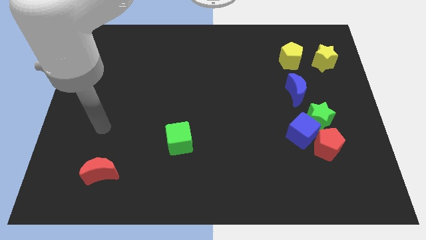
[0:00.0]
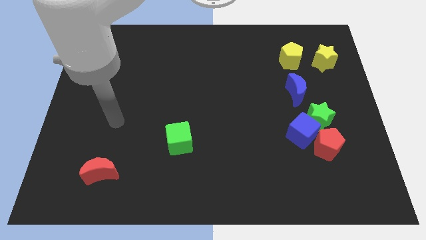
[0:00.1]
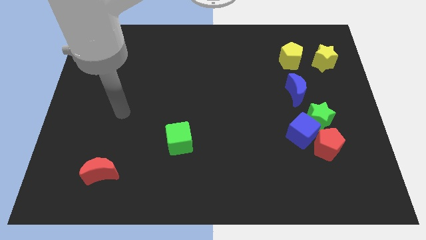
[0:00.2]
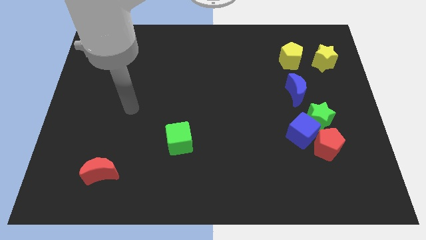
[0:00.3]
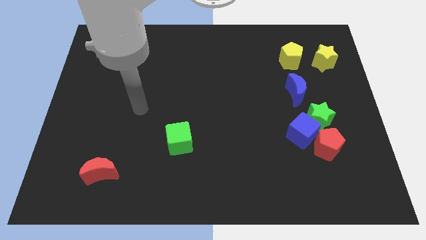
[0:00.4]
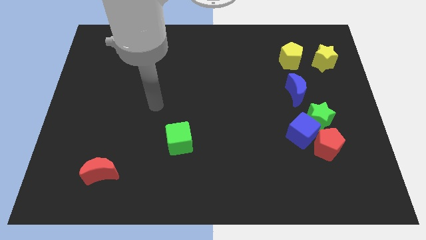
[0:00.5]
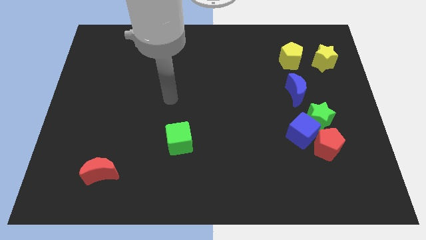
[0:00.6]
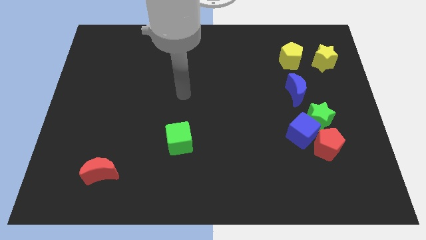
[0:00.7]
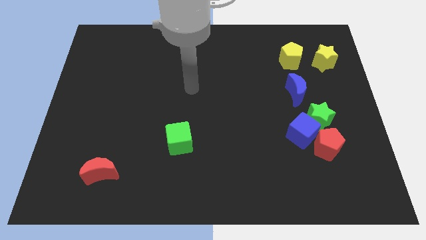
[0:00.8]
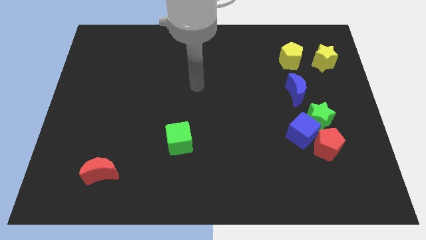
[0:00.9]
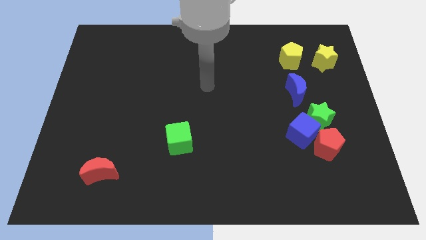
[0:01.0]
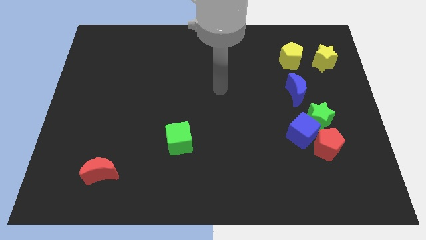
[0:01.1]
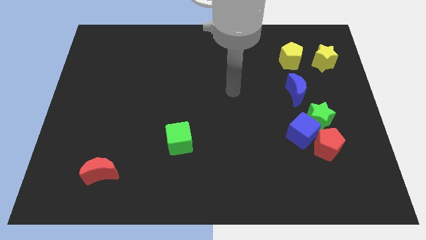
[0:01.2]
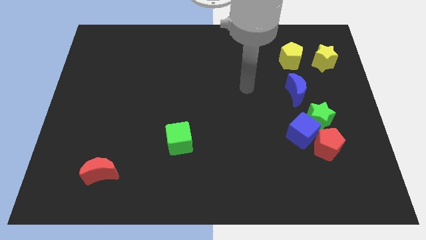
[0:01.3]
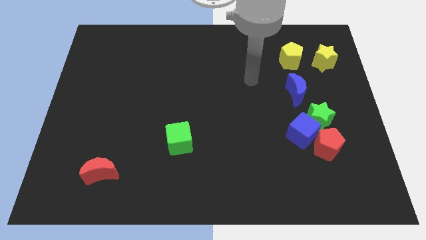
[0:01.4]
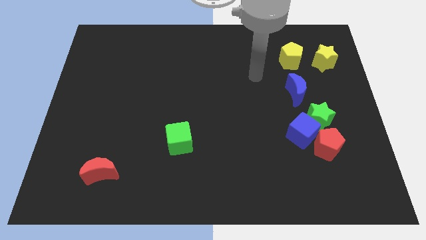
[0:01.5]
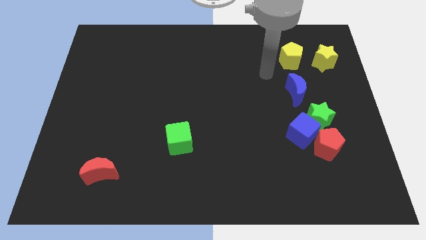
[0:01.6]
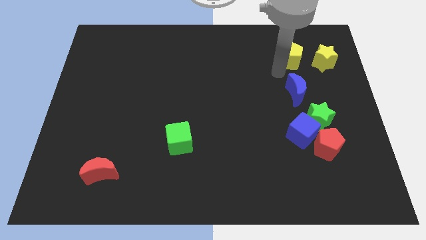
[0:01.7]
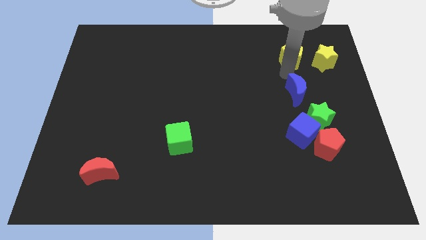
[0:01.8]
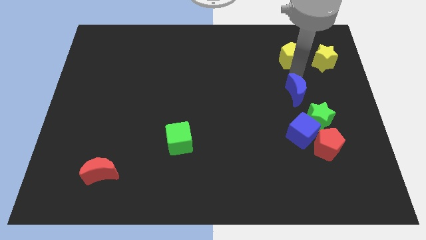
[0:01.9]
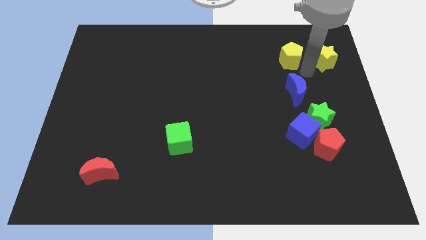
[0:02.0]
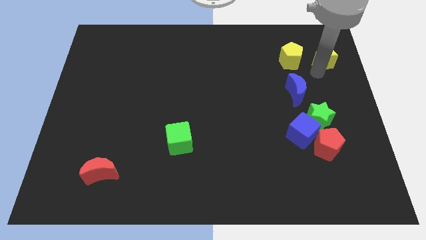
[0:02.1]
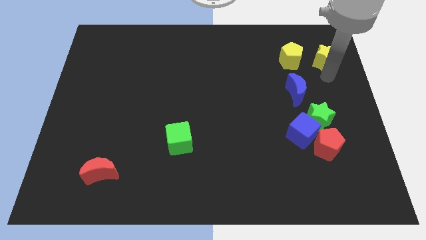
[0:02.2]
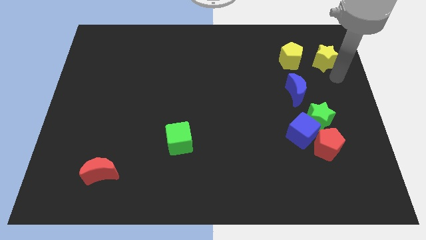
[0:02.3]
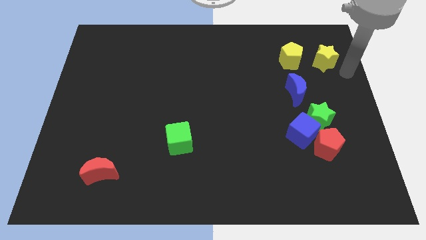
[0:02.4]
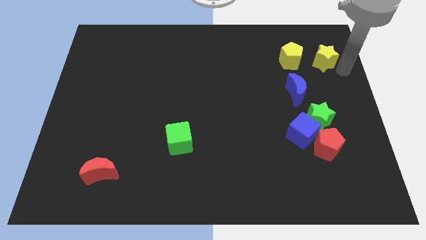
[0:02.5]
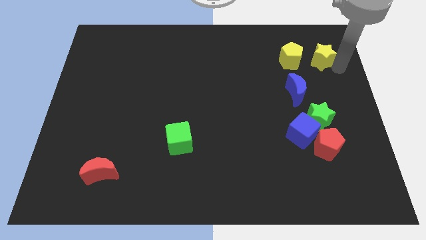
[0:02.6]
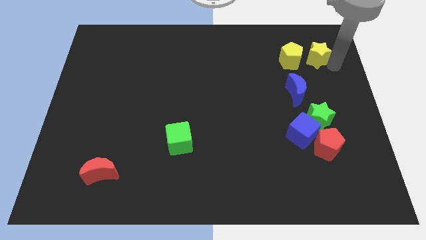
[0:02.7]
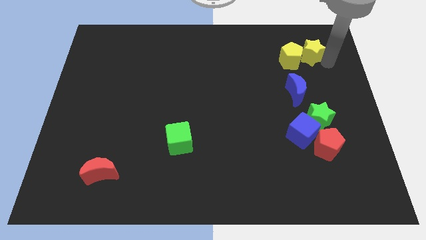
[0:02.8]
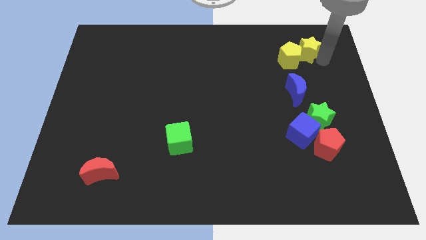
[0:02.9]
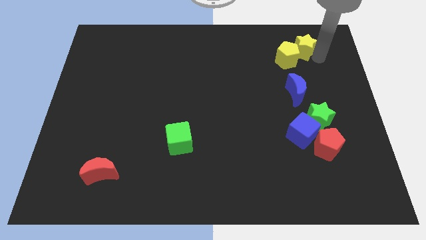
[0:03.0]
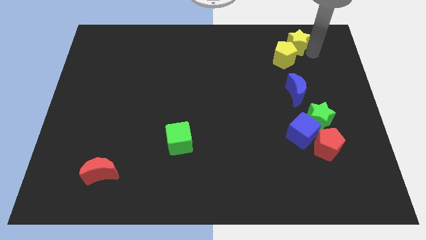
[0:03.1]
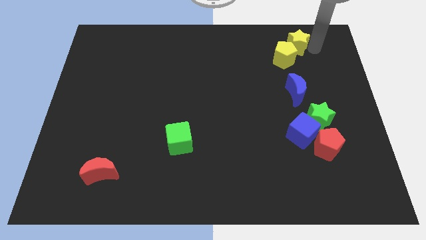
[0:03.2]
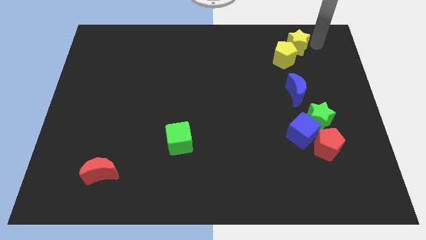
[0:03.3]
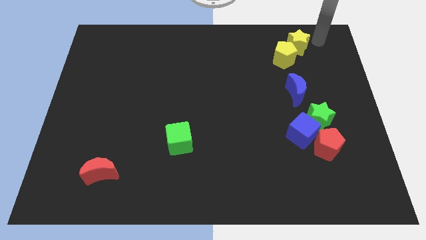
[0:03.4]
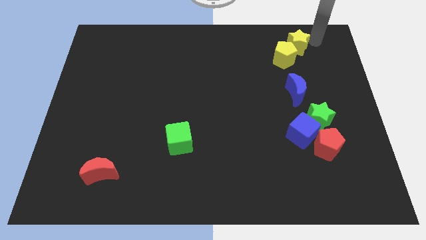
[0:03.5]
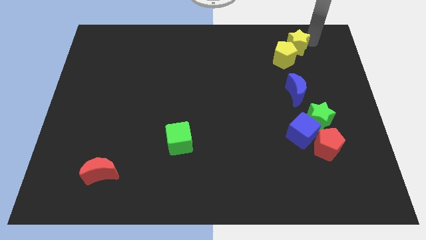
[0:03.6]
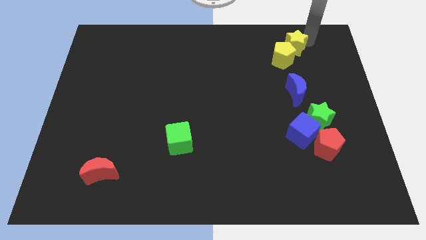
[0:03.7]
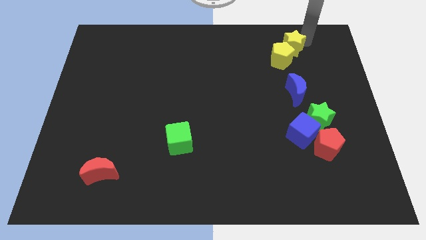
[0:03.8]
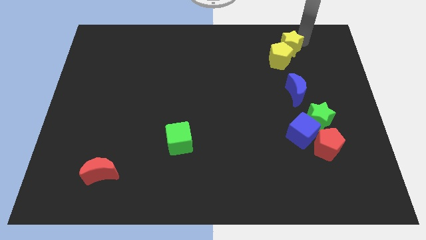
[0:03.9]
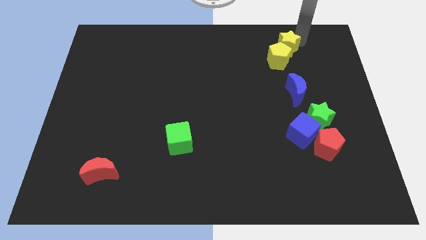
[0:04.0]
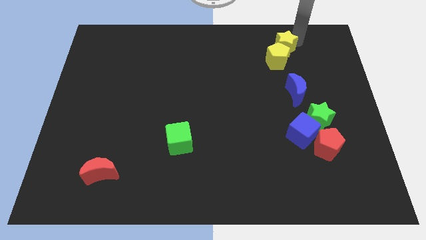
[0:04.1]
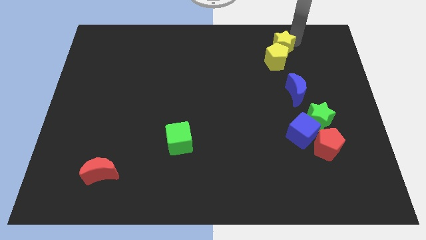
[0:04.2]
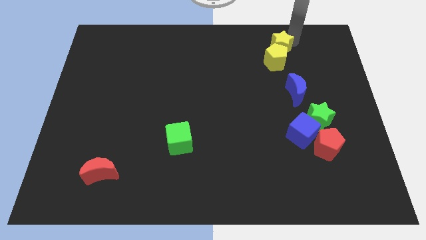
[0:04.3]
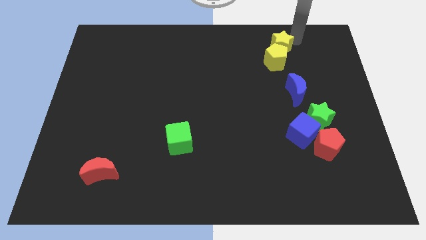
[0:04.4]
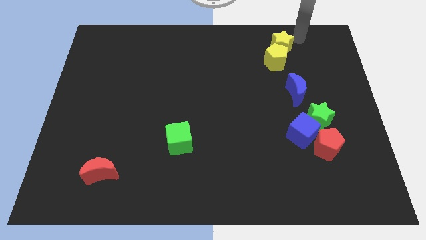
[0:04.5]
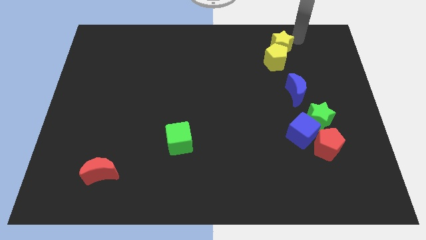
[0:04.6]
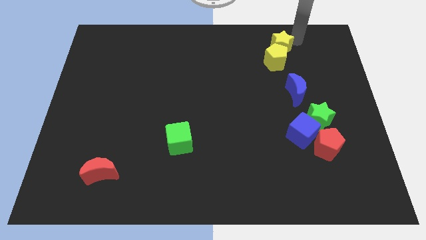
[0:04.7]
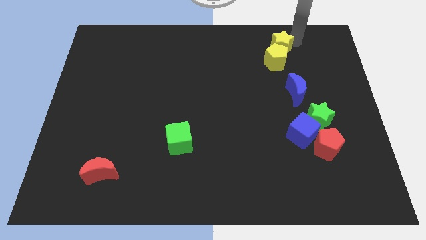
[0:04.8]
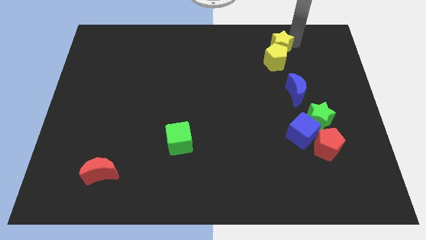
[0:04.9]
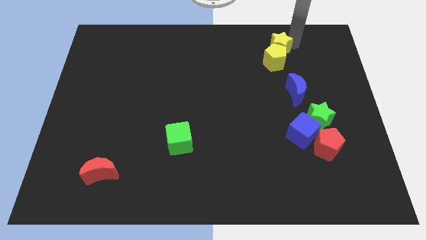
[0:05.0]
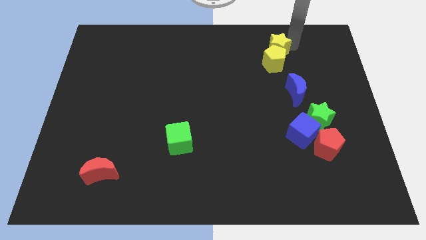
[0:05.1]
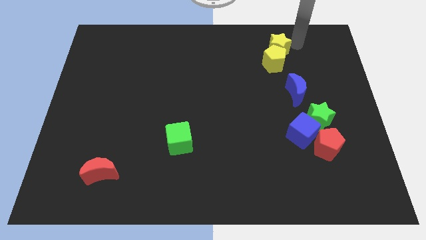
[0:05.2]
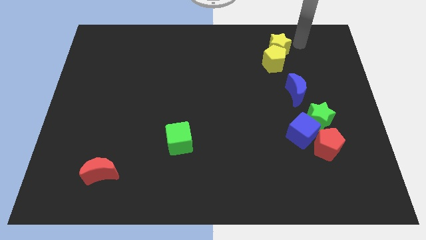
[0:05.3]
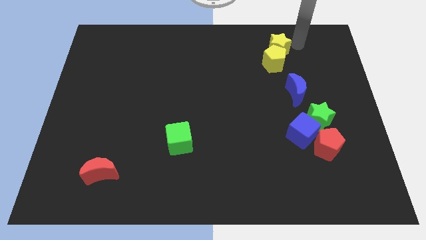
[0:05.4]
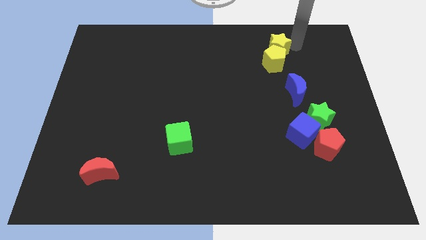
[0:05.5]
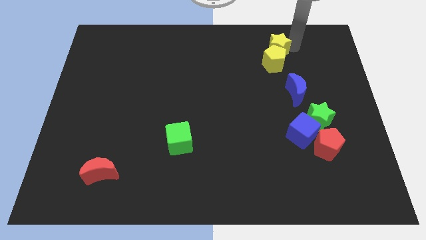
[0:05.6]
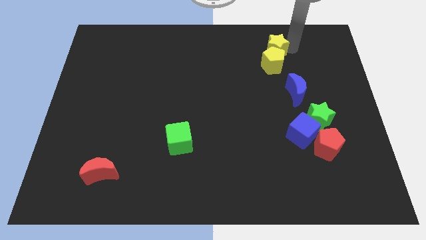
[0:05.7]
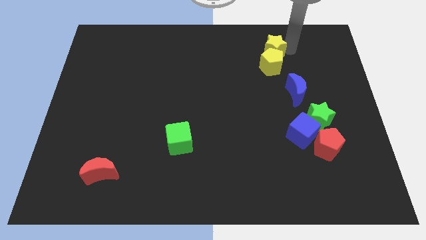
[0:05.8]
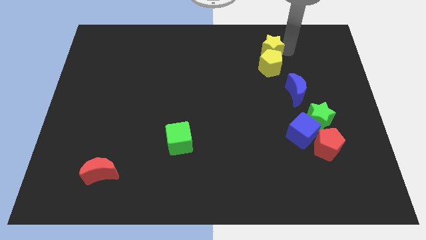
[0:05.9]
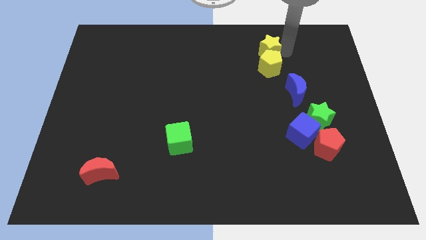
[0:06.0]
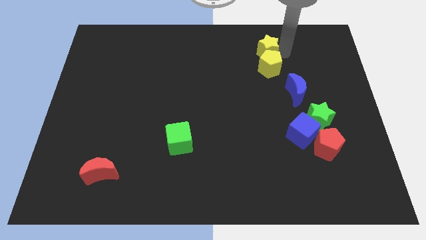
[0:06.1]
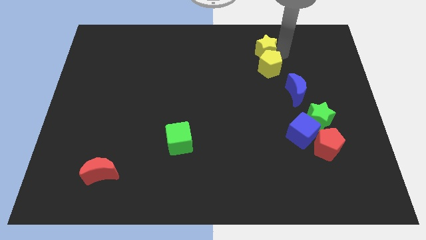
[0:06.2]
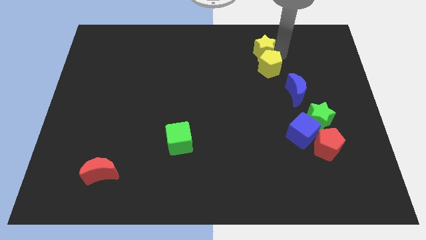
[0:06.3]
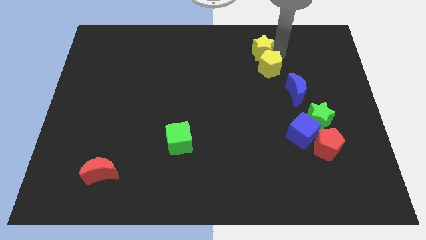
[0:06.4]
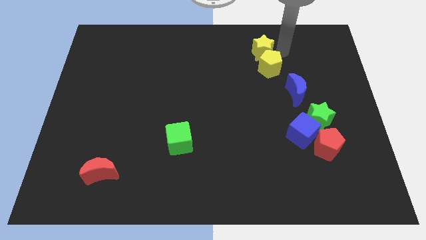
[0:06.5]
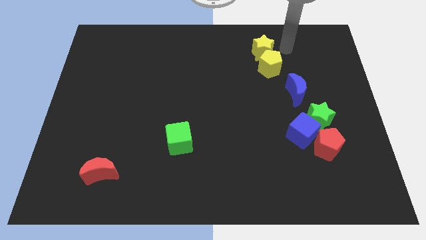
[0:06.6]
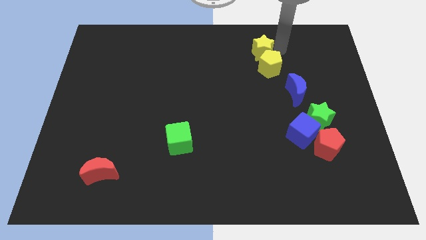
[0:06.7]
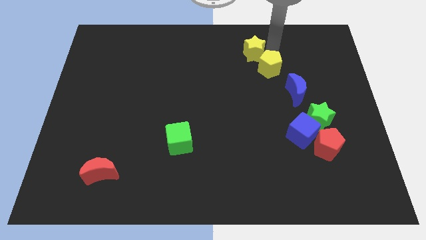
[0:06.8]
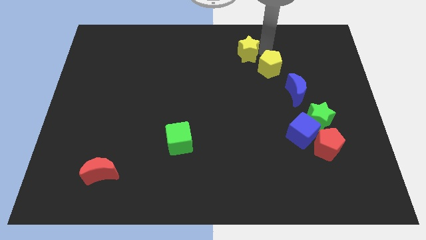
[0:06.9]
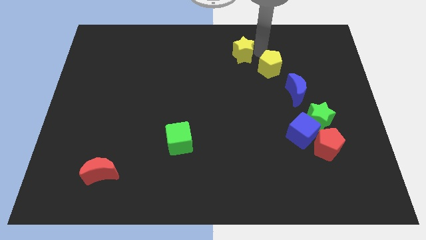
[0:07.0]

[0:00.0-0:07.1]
push the yellow star to the left

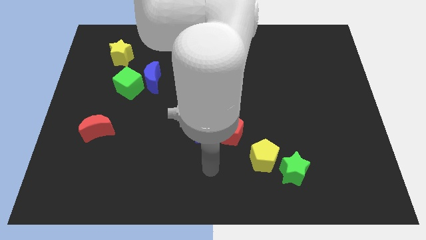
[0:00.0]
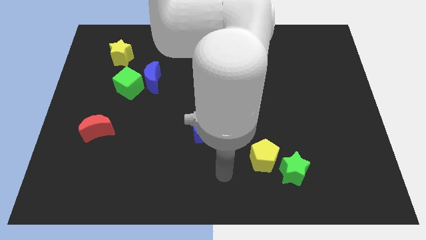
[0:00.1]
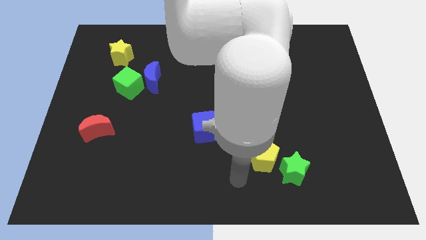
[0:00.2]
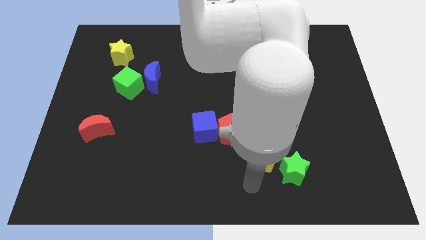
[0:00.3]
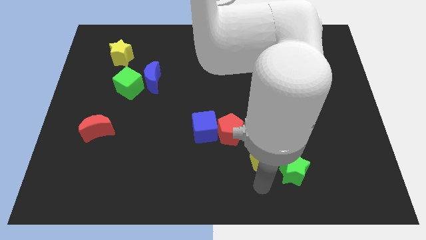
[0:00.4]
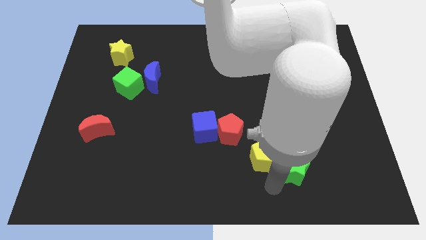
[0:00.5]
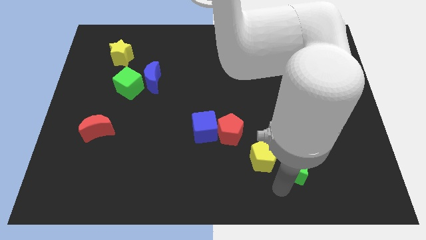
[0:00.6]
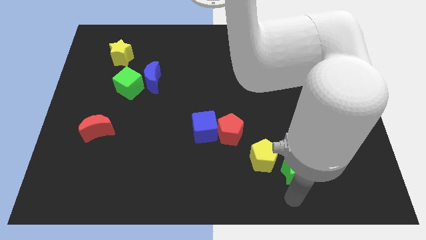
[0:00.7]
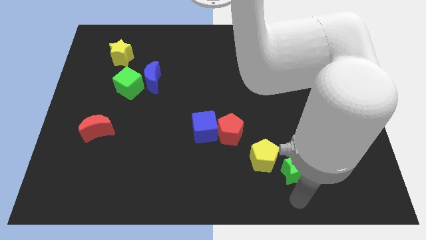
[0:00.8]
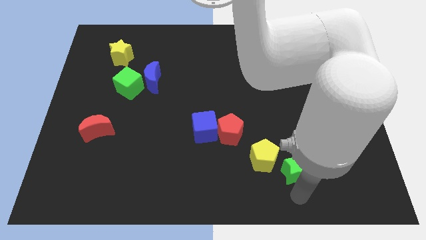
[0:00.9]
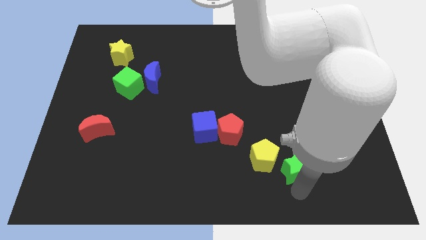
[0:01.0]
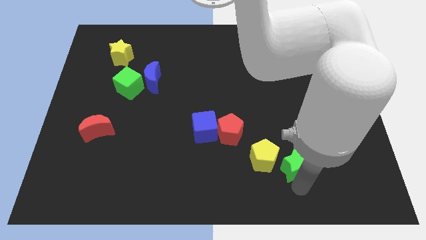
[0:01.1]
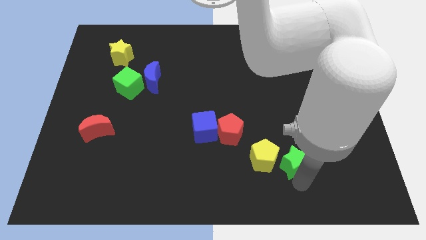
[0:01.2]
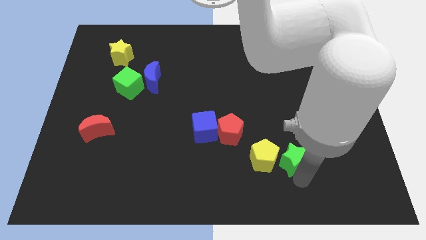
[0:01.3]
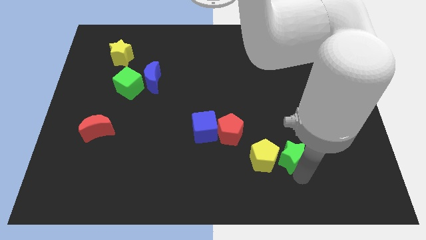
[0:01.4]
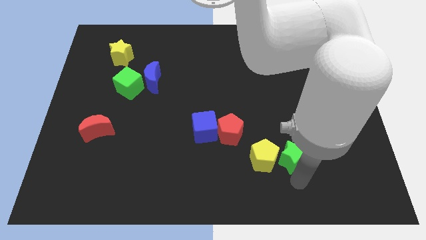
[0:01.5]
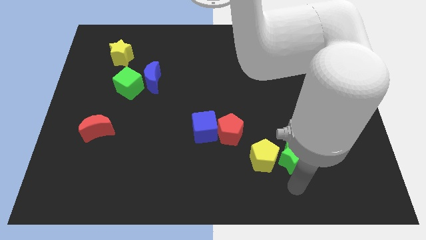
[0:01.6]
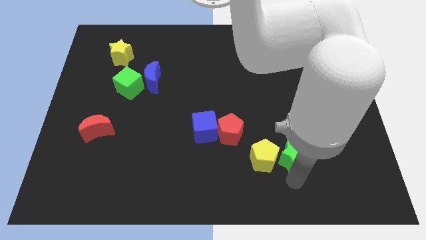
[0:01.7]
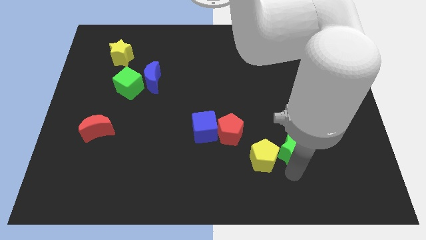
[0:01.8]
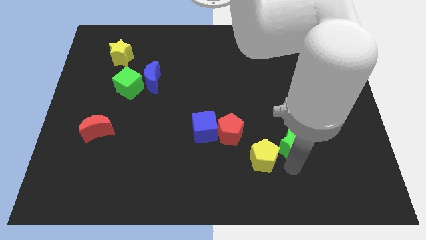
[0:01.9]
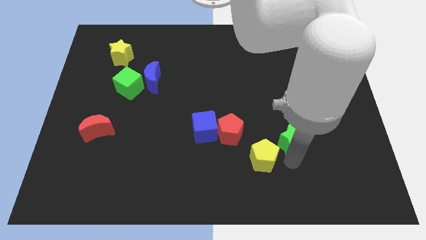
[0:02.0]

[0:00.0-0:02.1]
move the green star up a little bit
